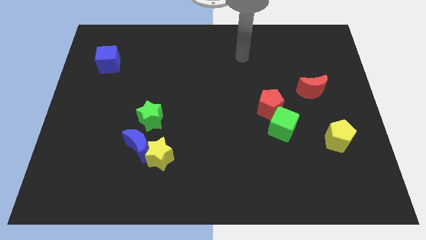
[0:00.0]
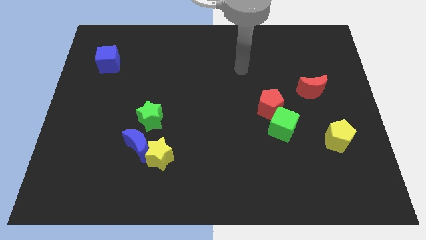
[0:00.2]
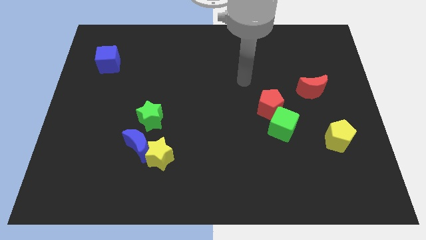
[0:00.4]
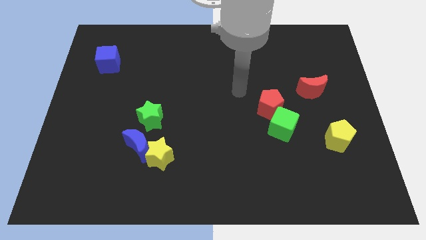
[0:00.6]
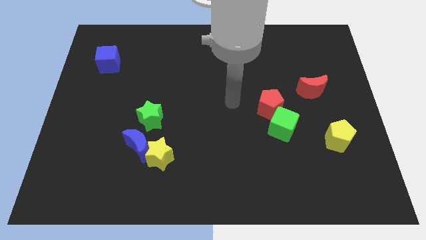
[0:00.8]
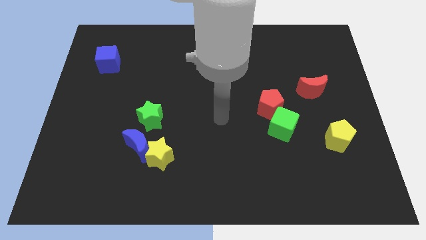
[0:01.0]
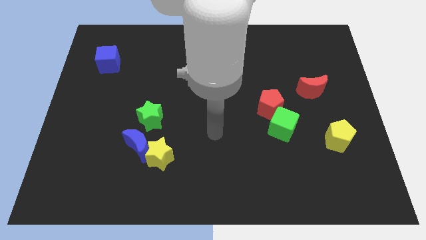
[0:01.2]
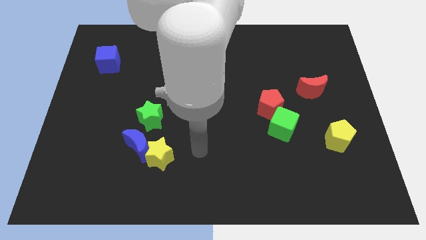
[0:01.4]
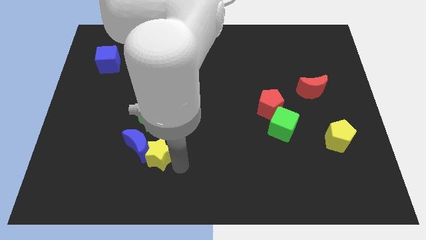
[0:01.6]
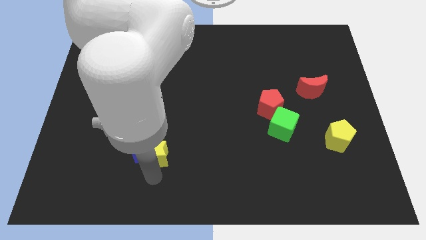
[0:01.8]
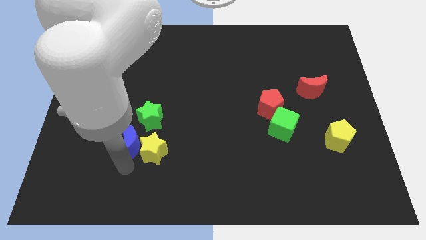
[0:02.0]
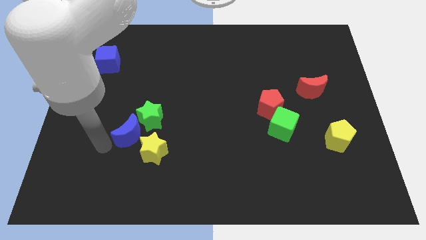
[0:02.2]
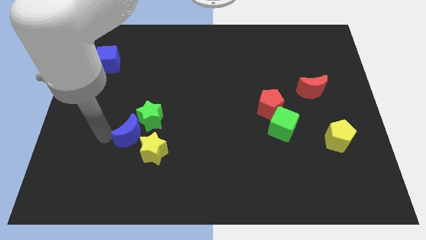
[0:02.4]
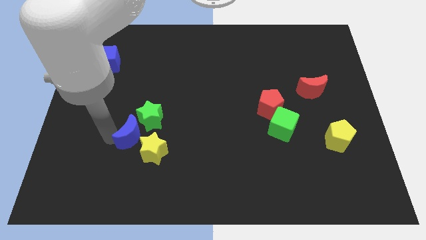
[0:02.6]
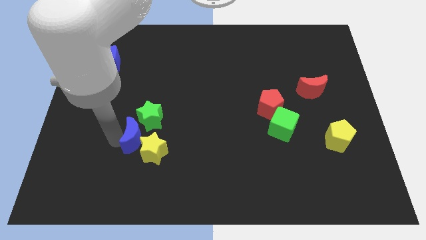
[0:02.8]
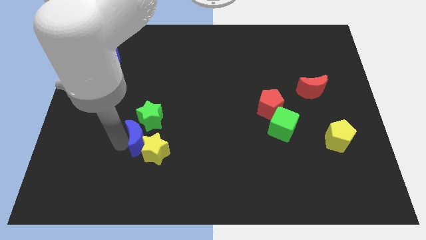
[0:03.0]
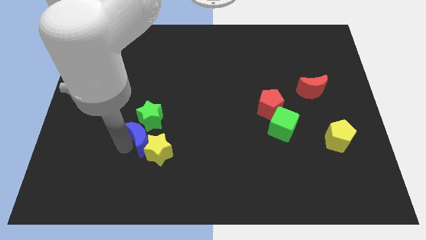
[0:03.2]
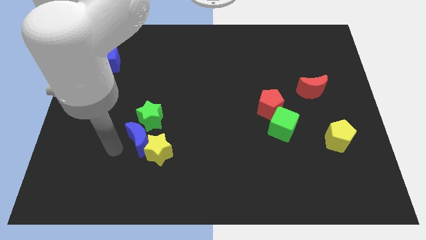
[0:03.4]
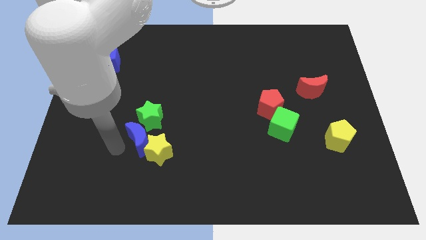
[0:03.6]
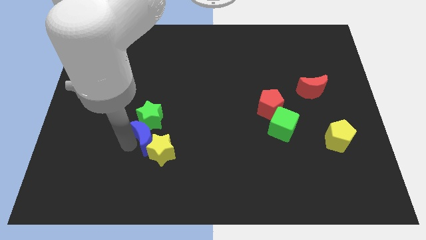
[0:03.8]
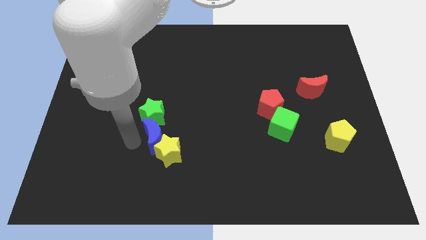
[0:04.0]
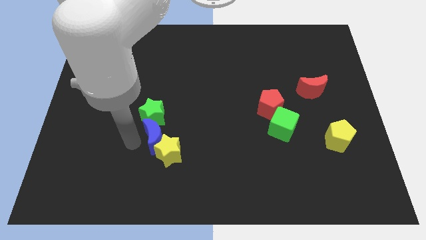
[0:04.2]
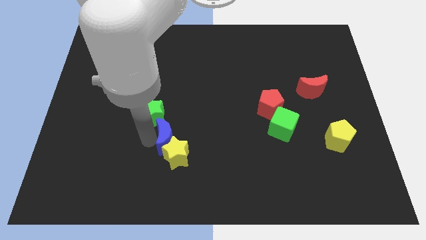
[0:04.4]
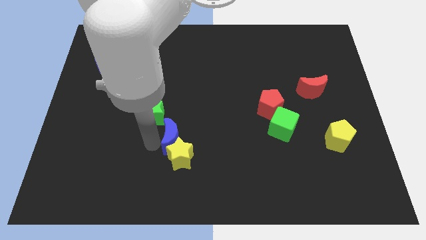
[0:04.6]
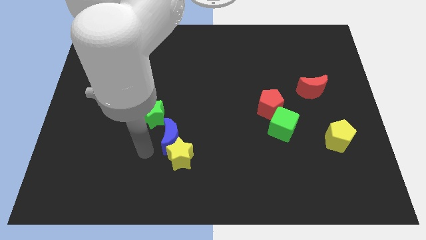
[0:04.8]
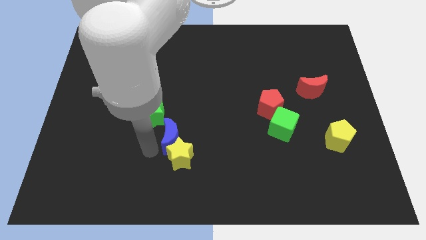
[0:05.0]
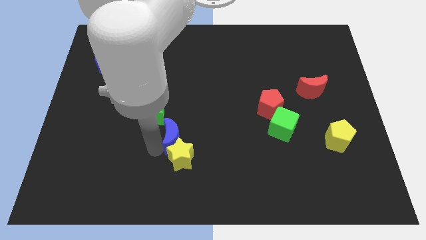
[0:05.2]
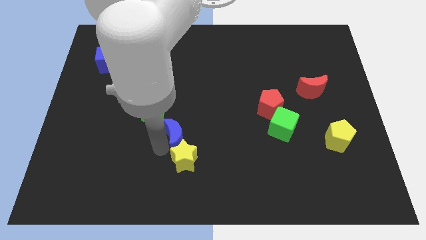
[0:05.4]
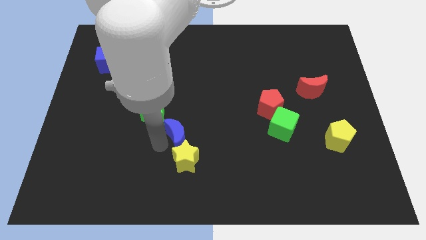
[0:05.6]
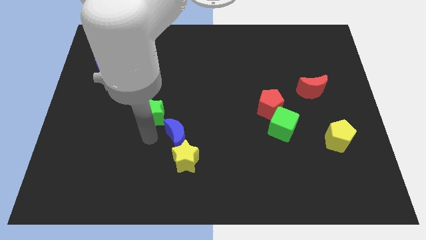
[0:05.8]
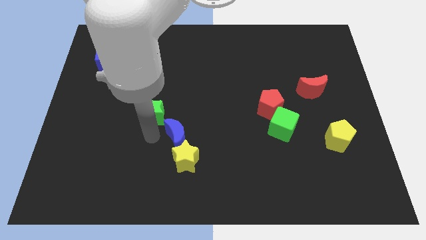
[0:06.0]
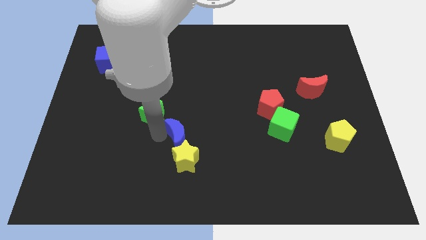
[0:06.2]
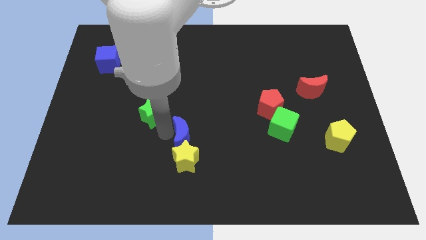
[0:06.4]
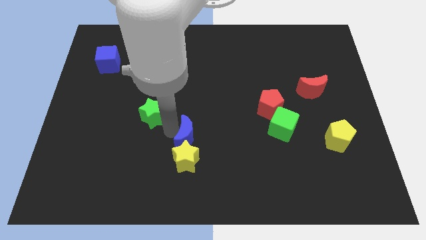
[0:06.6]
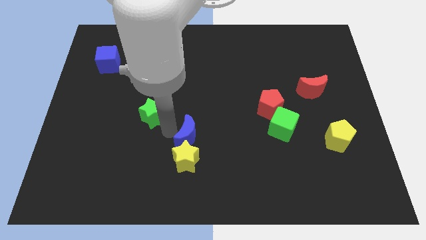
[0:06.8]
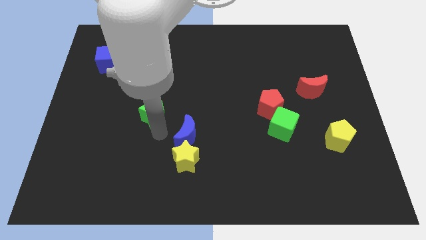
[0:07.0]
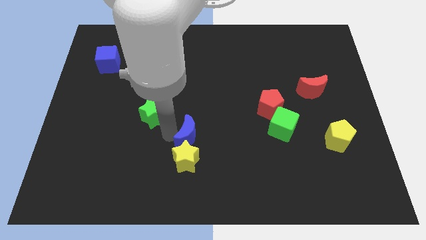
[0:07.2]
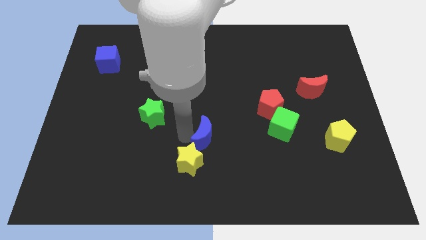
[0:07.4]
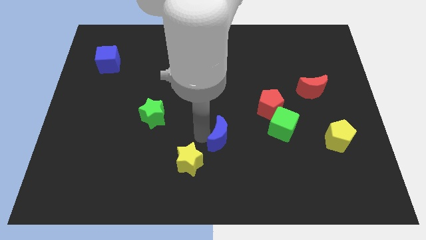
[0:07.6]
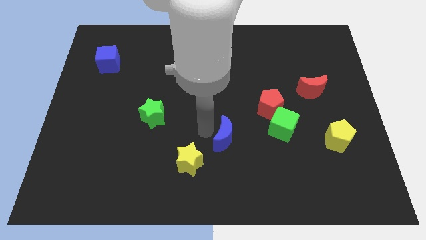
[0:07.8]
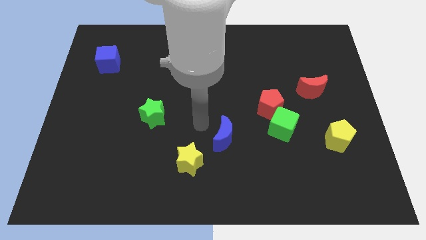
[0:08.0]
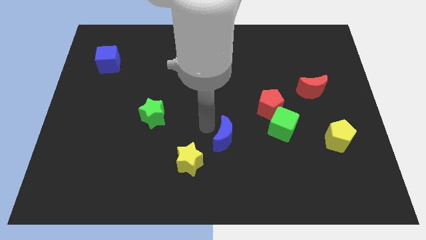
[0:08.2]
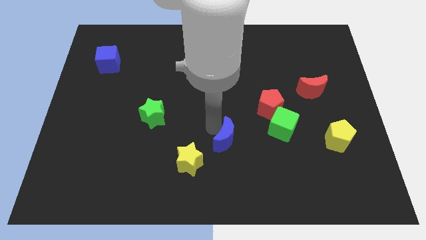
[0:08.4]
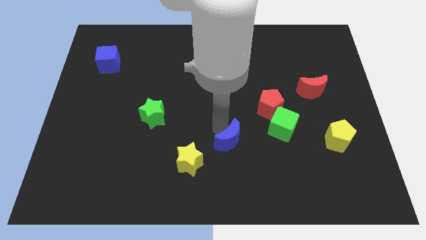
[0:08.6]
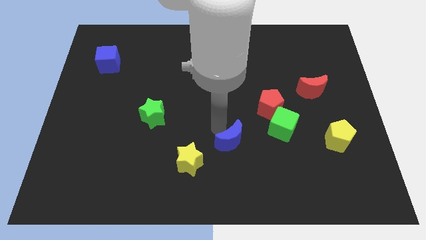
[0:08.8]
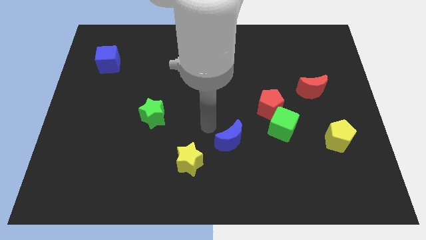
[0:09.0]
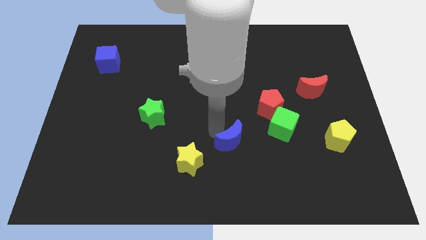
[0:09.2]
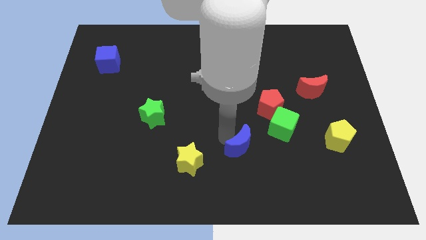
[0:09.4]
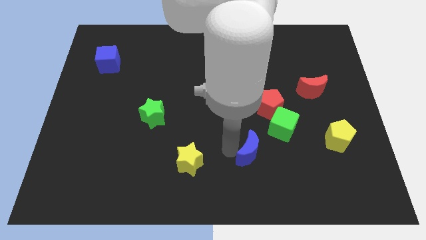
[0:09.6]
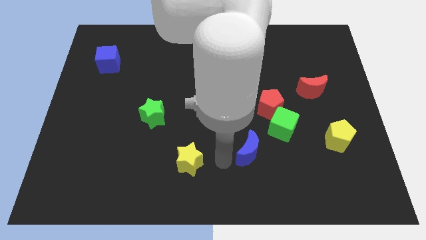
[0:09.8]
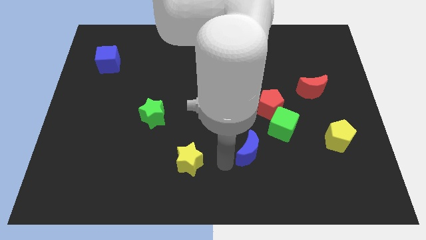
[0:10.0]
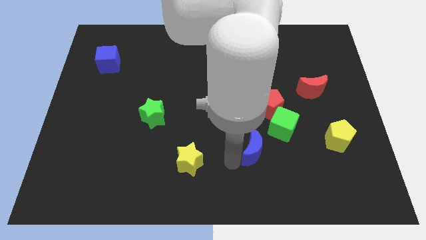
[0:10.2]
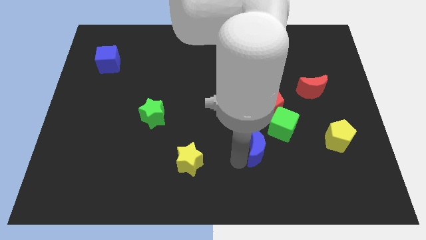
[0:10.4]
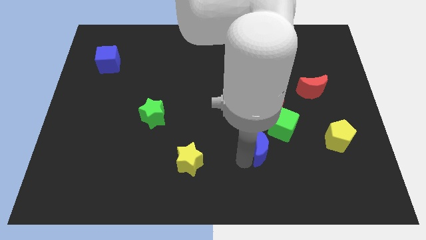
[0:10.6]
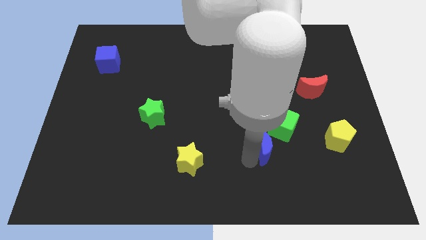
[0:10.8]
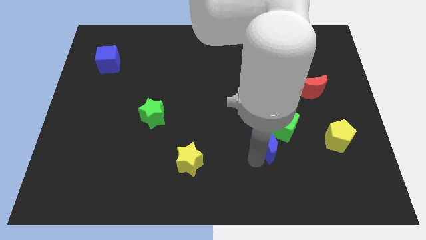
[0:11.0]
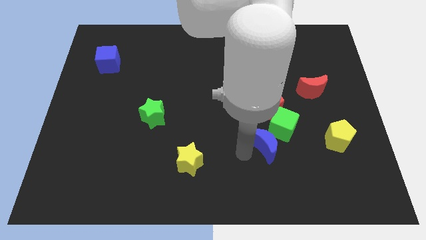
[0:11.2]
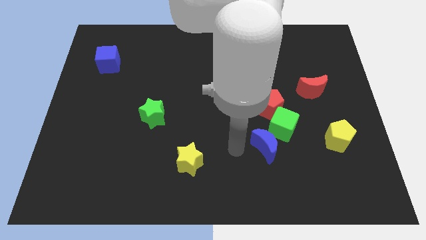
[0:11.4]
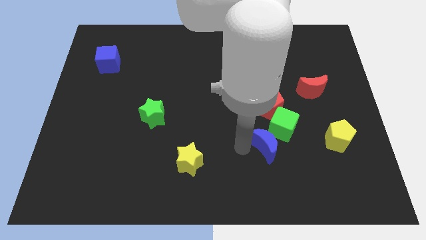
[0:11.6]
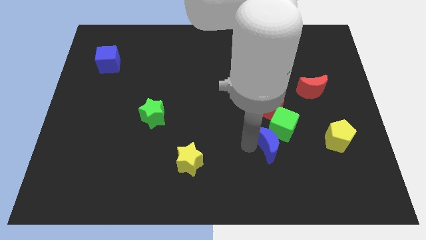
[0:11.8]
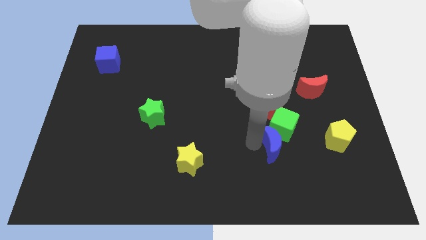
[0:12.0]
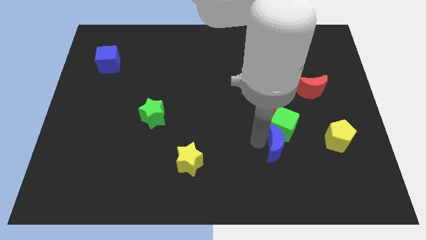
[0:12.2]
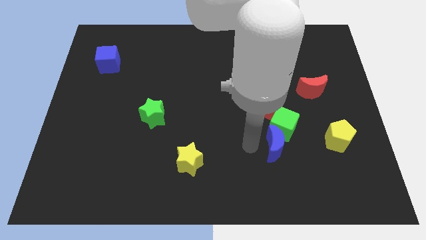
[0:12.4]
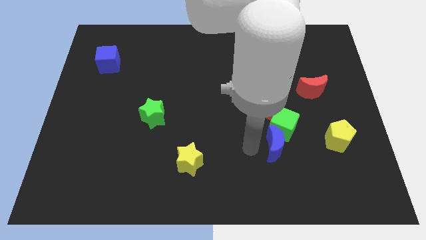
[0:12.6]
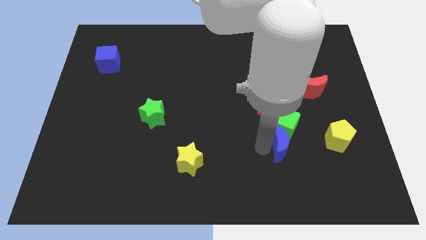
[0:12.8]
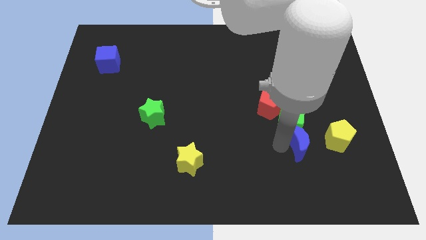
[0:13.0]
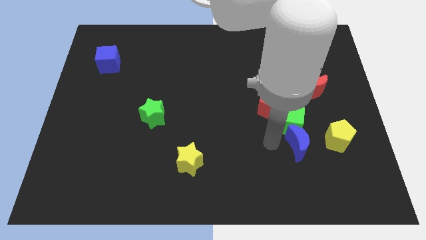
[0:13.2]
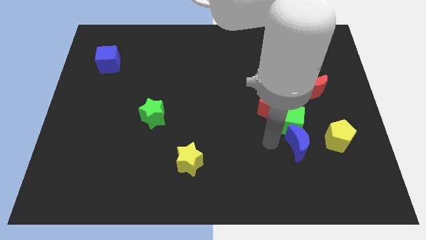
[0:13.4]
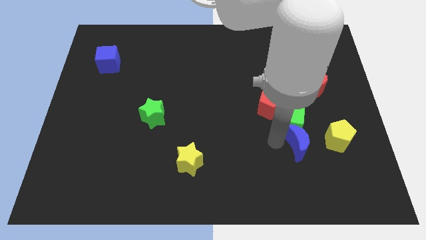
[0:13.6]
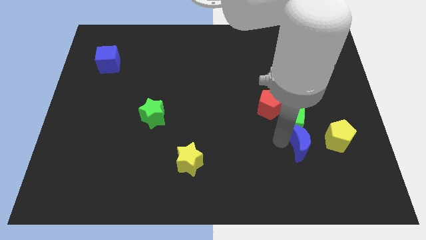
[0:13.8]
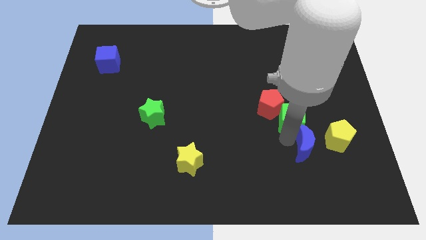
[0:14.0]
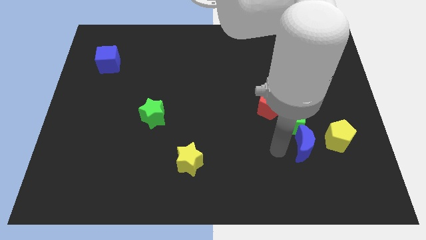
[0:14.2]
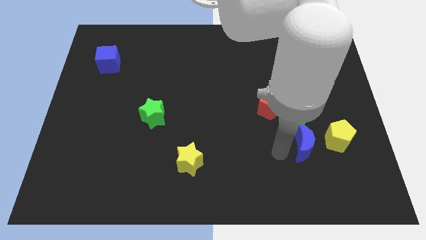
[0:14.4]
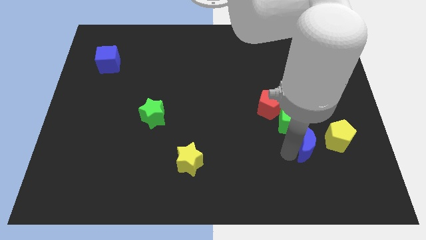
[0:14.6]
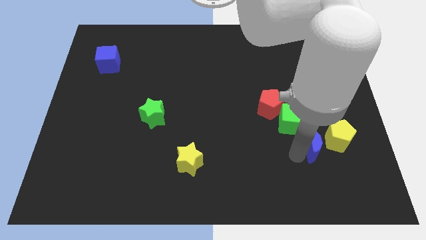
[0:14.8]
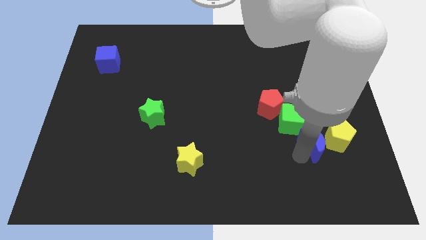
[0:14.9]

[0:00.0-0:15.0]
move the blue moon towards the yellow pentagon
